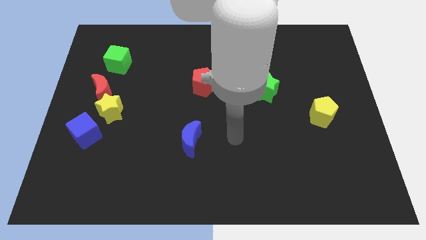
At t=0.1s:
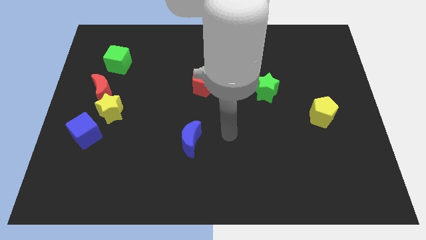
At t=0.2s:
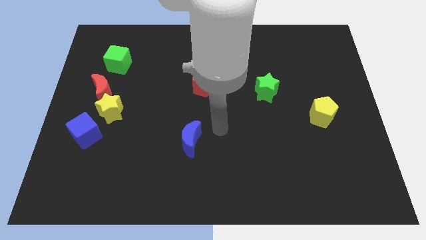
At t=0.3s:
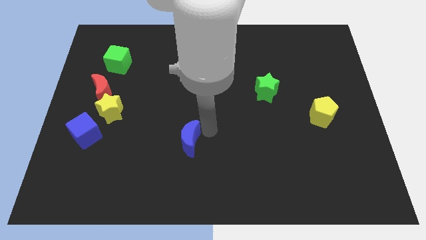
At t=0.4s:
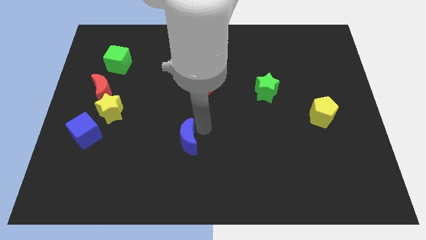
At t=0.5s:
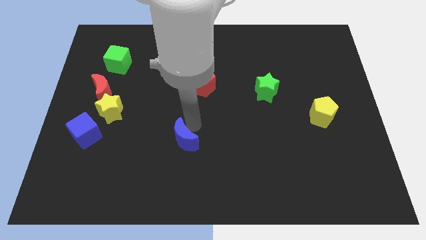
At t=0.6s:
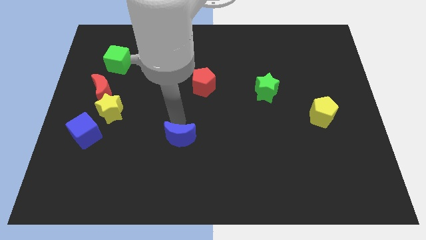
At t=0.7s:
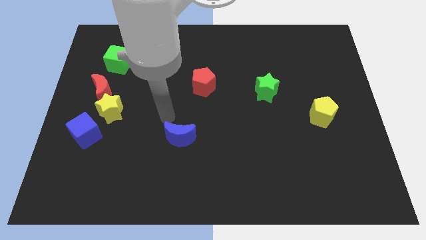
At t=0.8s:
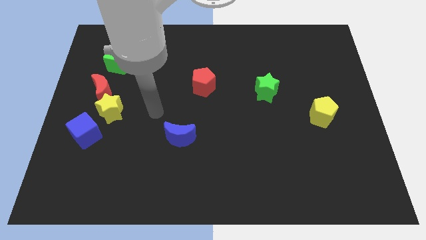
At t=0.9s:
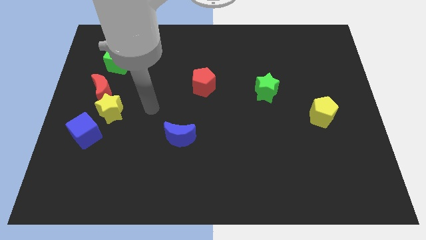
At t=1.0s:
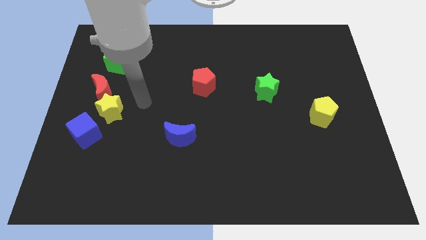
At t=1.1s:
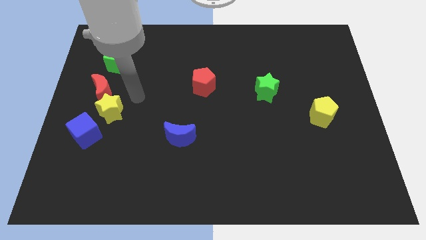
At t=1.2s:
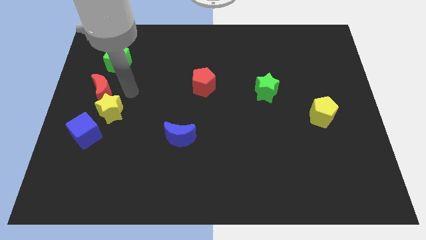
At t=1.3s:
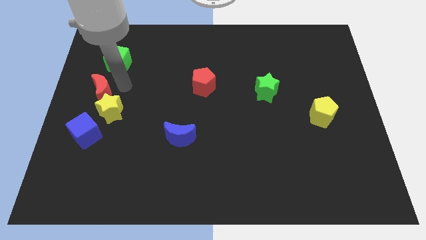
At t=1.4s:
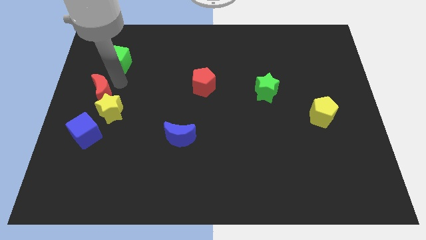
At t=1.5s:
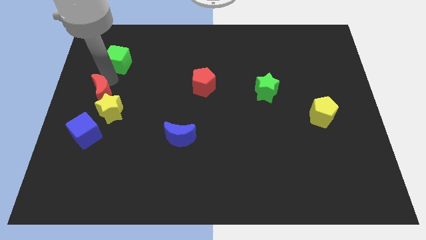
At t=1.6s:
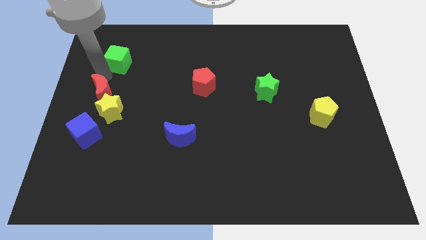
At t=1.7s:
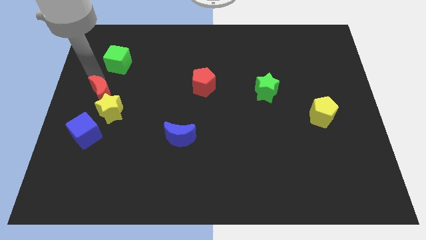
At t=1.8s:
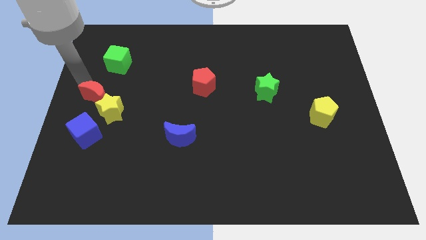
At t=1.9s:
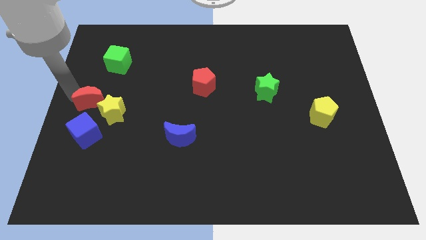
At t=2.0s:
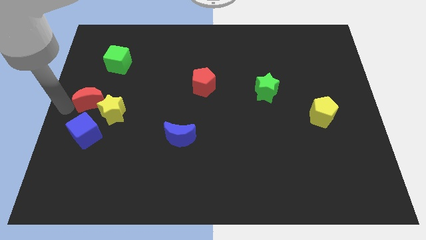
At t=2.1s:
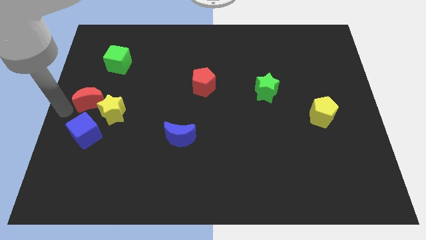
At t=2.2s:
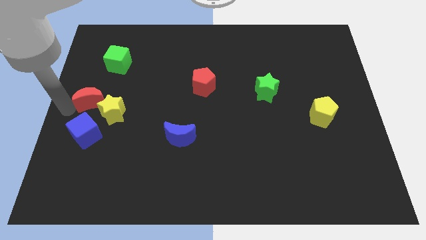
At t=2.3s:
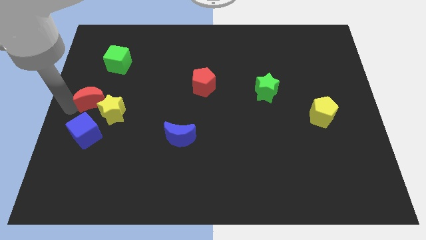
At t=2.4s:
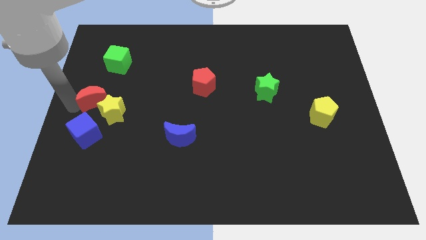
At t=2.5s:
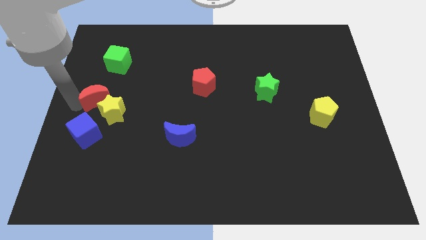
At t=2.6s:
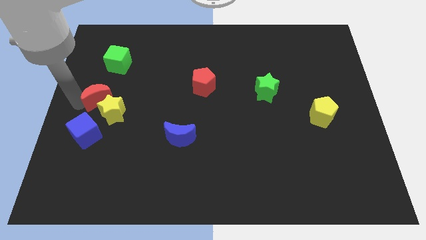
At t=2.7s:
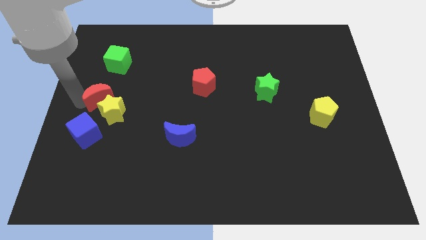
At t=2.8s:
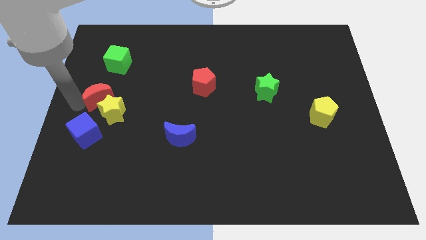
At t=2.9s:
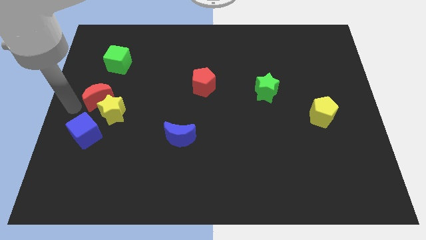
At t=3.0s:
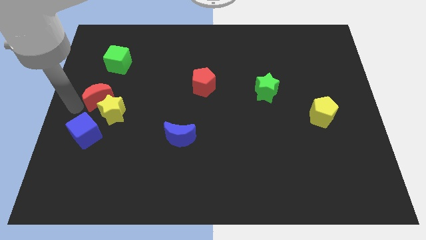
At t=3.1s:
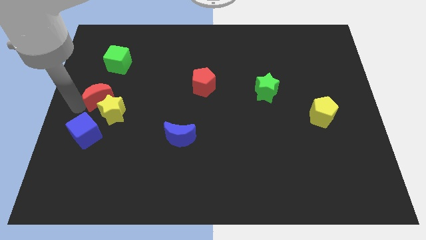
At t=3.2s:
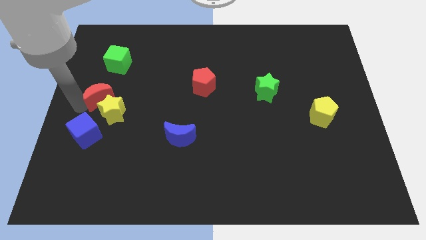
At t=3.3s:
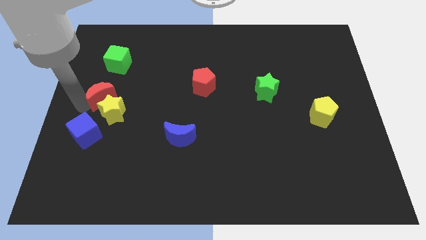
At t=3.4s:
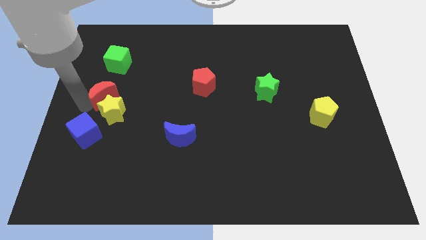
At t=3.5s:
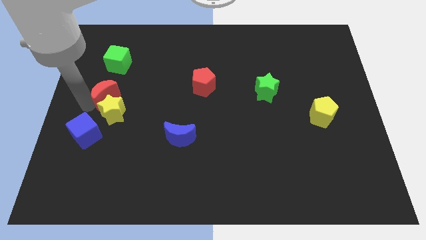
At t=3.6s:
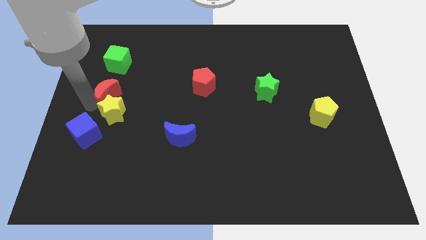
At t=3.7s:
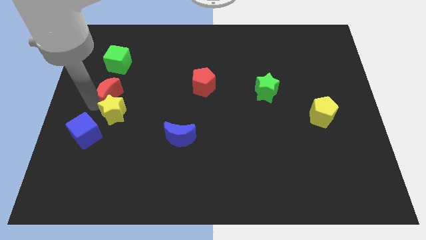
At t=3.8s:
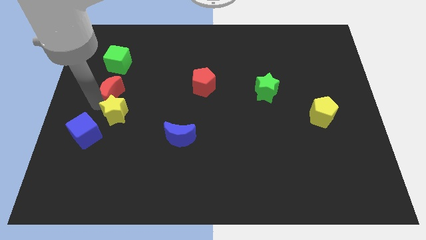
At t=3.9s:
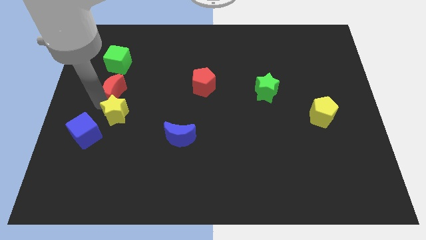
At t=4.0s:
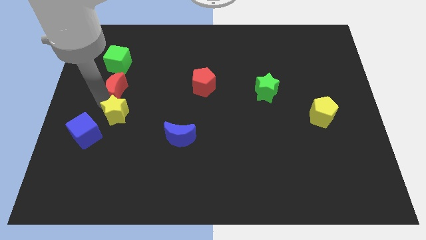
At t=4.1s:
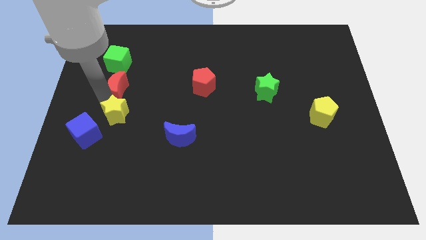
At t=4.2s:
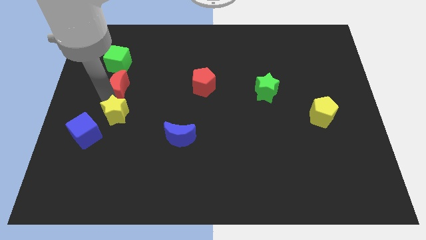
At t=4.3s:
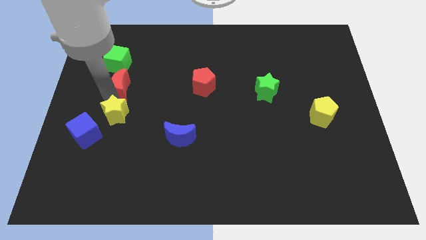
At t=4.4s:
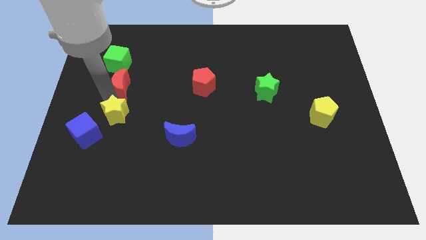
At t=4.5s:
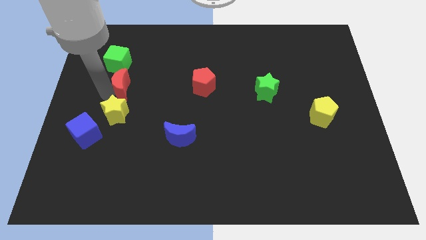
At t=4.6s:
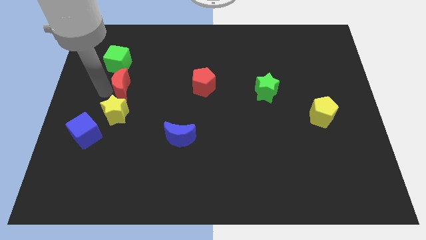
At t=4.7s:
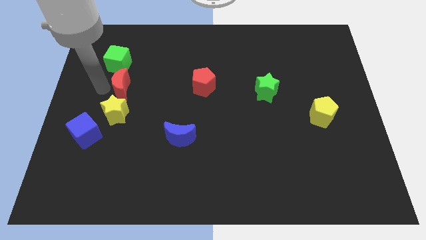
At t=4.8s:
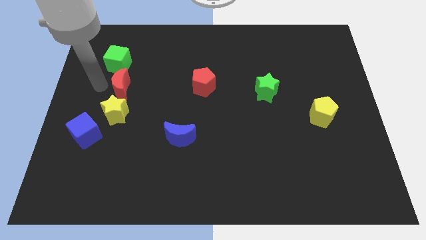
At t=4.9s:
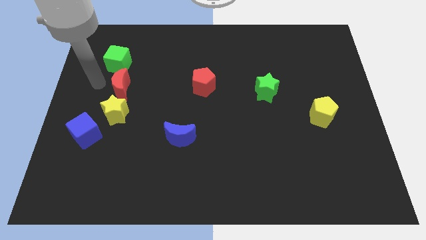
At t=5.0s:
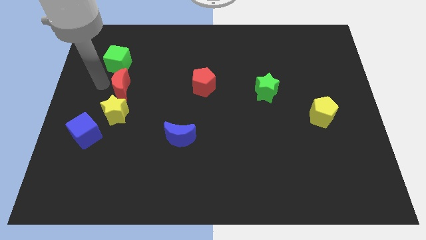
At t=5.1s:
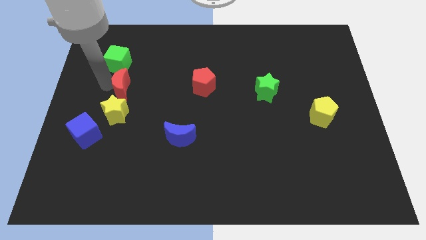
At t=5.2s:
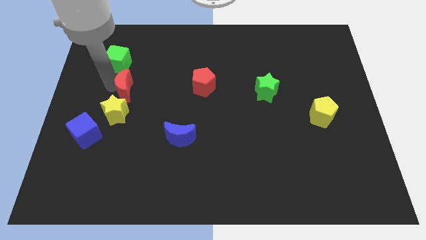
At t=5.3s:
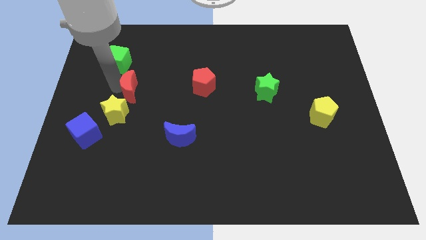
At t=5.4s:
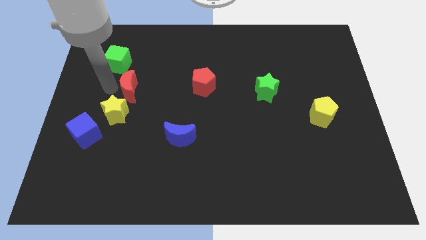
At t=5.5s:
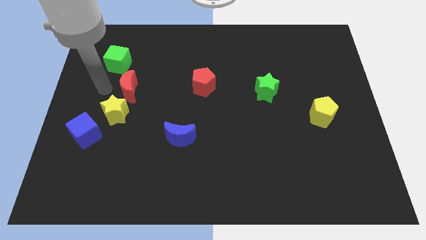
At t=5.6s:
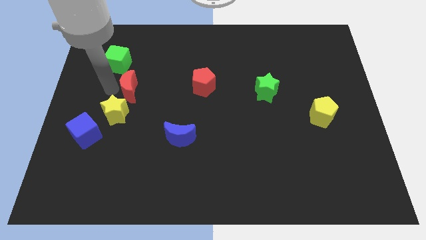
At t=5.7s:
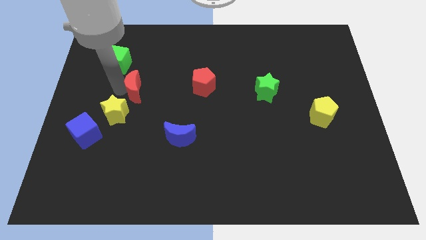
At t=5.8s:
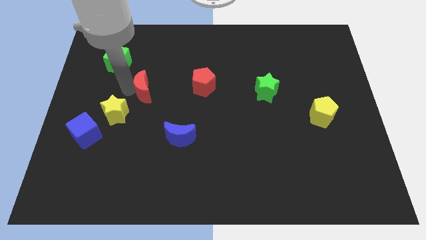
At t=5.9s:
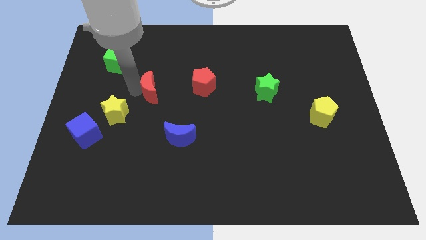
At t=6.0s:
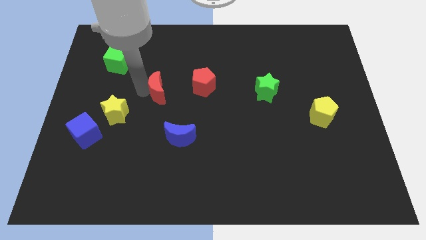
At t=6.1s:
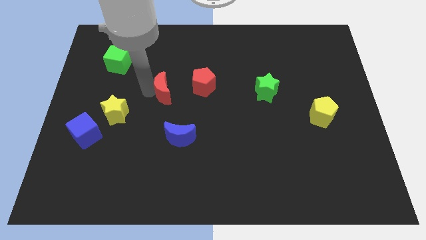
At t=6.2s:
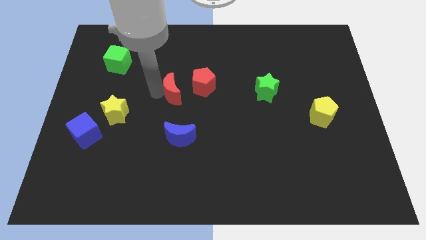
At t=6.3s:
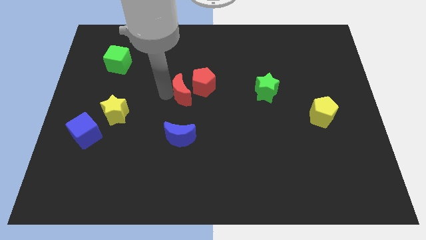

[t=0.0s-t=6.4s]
slide the red moon towards the red pentagon
